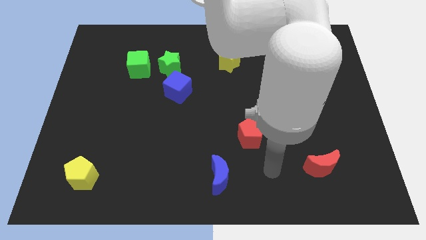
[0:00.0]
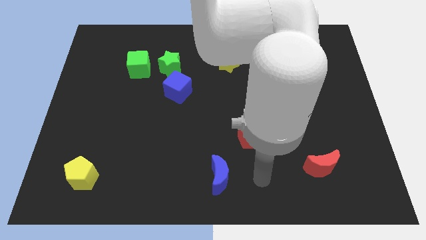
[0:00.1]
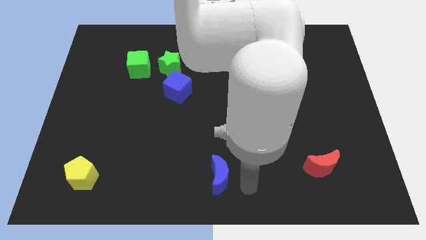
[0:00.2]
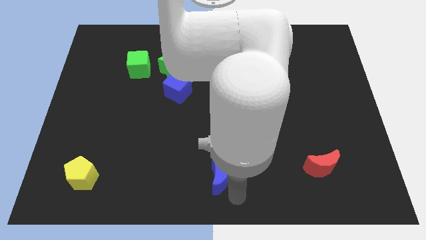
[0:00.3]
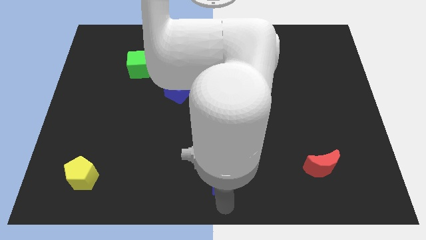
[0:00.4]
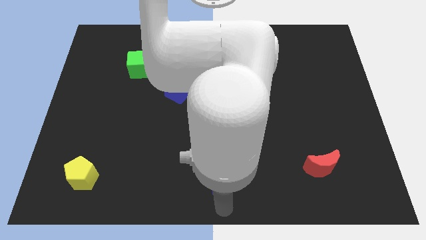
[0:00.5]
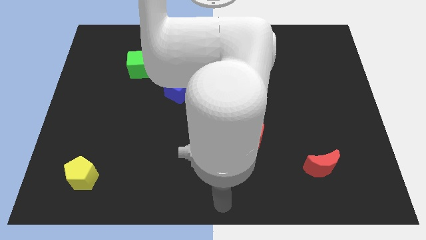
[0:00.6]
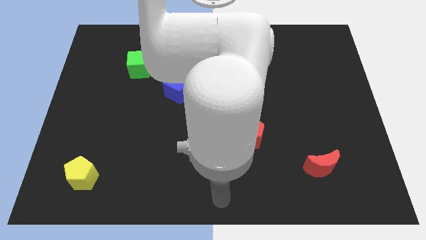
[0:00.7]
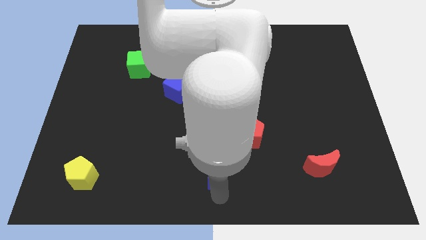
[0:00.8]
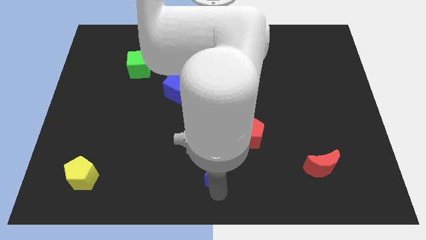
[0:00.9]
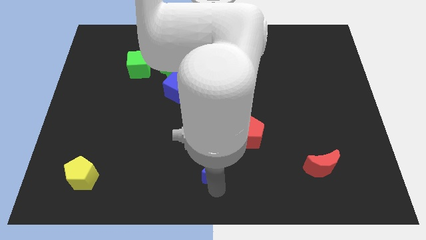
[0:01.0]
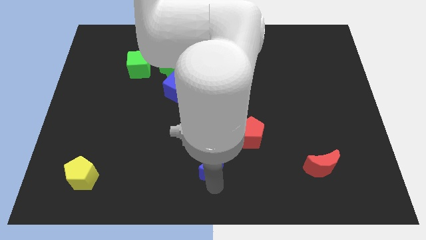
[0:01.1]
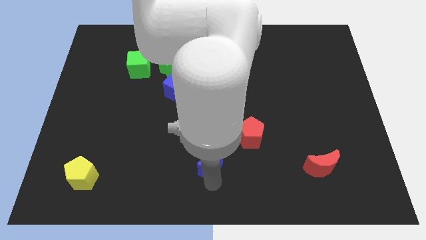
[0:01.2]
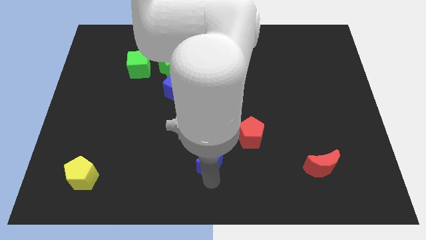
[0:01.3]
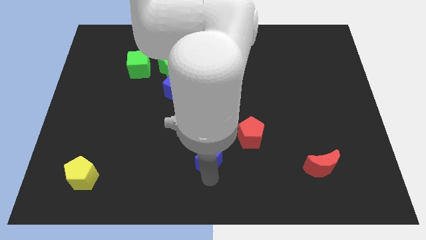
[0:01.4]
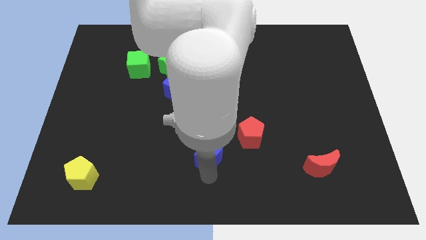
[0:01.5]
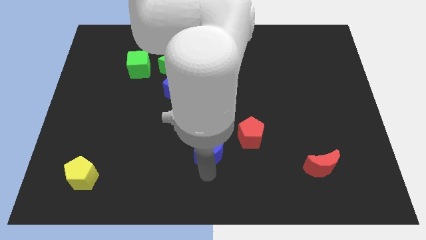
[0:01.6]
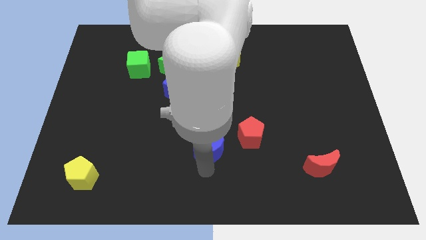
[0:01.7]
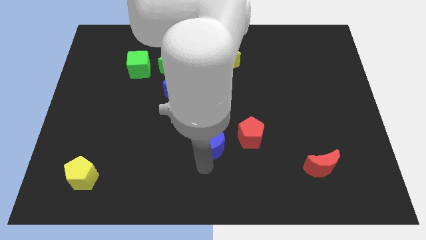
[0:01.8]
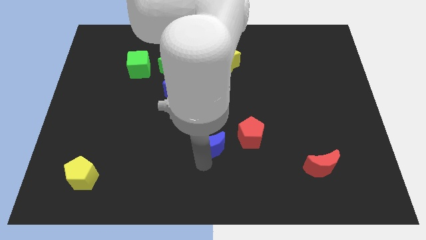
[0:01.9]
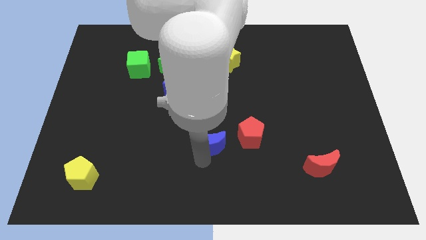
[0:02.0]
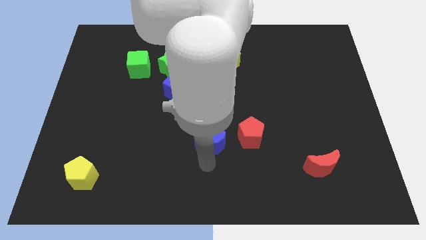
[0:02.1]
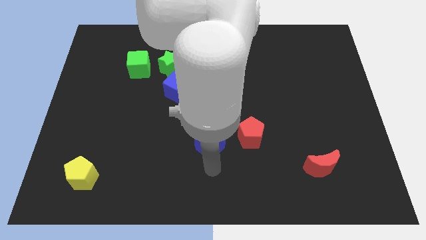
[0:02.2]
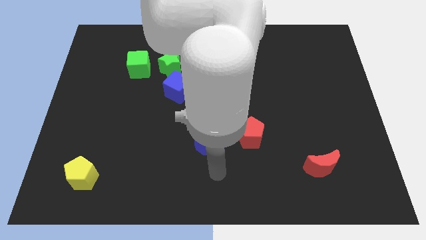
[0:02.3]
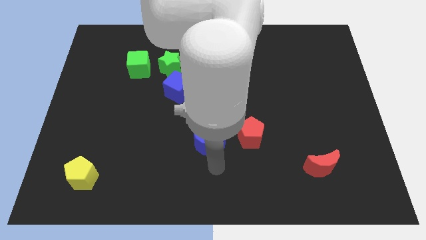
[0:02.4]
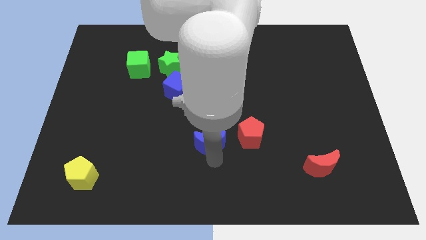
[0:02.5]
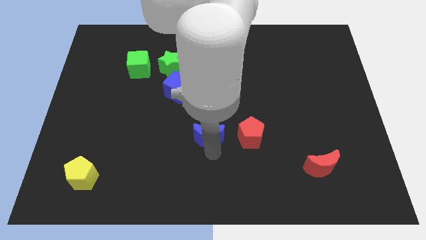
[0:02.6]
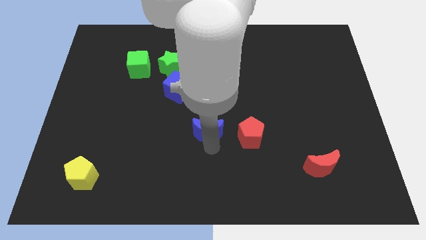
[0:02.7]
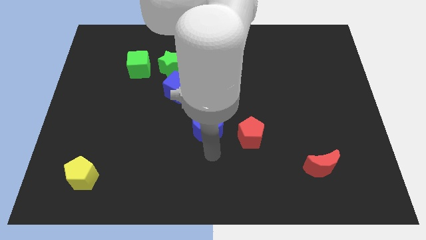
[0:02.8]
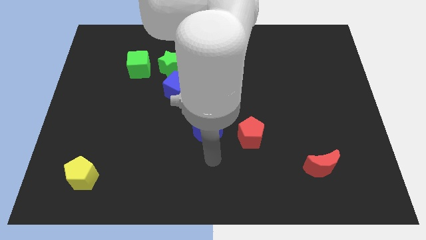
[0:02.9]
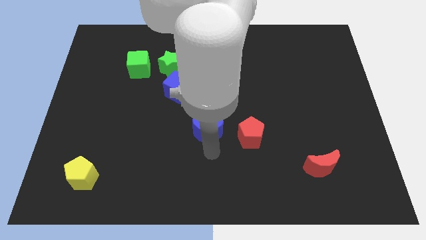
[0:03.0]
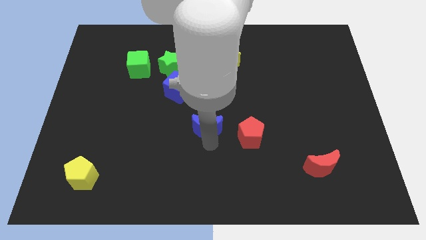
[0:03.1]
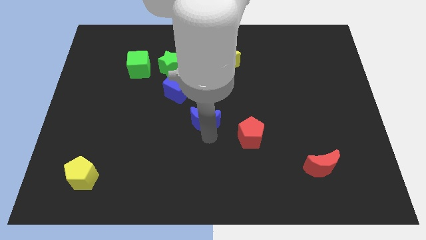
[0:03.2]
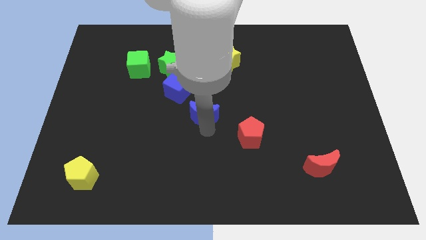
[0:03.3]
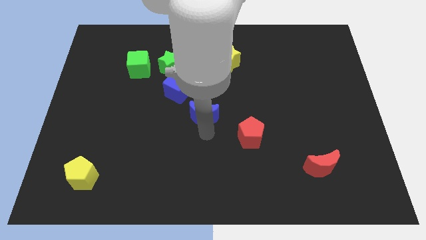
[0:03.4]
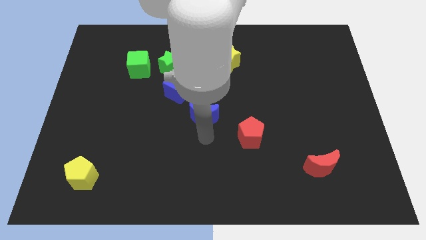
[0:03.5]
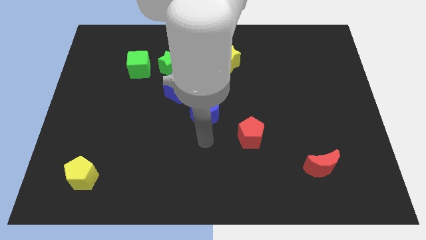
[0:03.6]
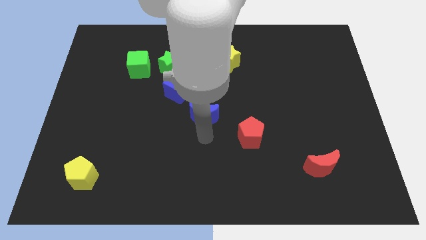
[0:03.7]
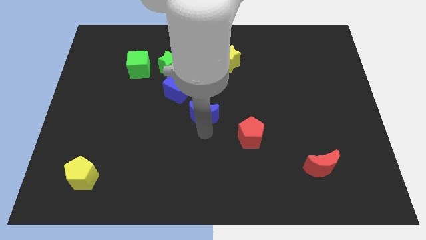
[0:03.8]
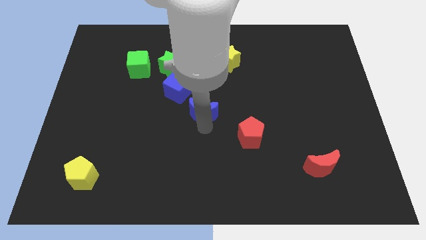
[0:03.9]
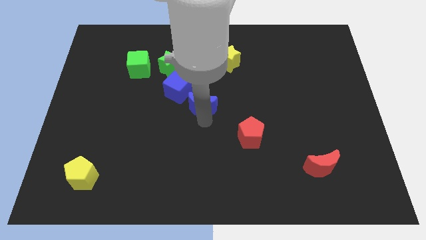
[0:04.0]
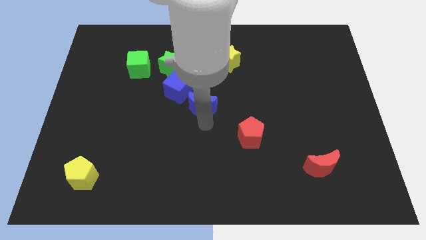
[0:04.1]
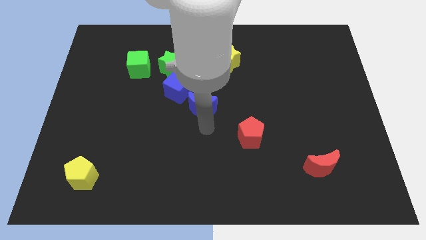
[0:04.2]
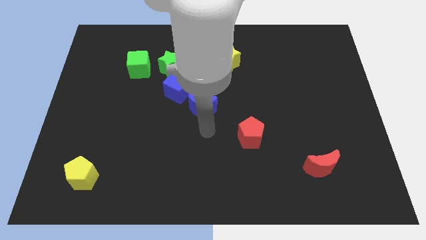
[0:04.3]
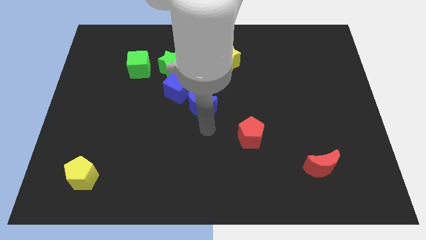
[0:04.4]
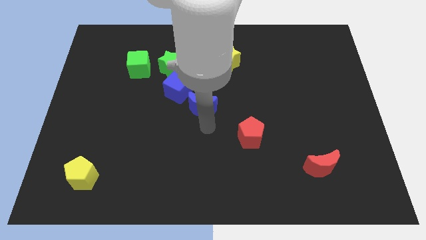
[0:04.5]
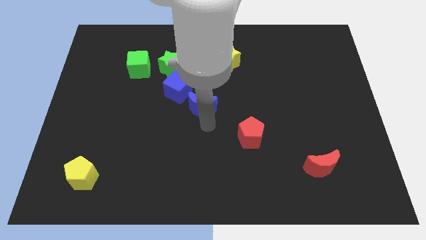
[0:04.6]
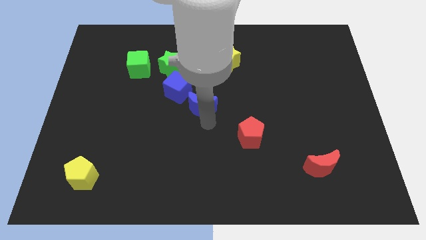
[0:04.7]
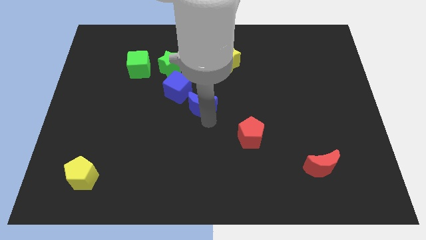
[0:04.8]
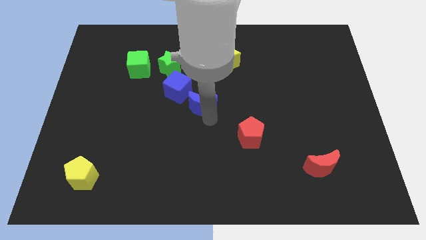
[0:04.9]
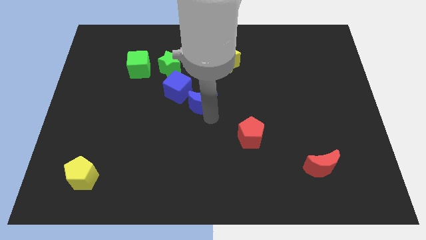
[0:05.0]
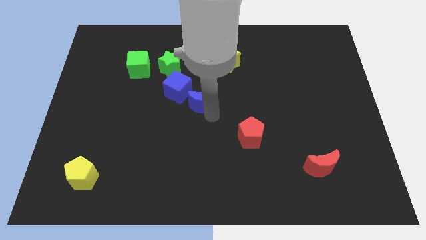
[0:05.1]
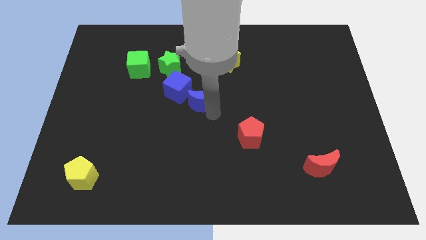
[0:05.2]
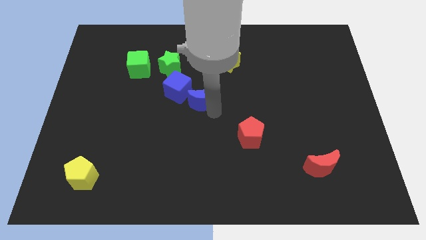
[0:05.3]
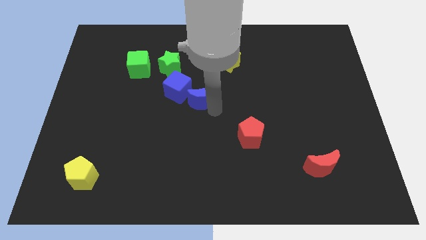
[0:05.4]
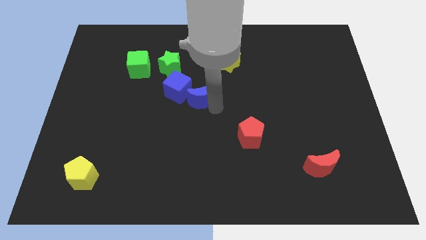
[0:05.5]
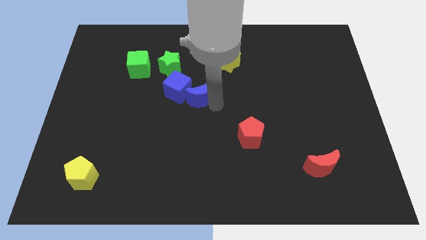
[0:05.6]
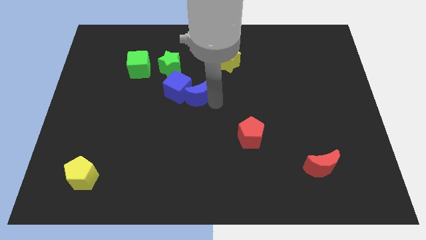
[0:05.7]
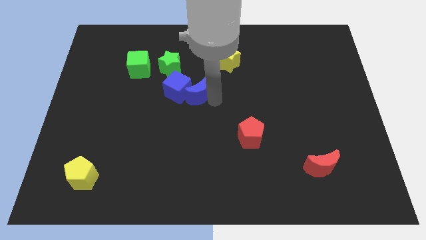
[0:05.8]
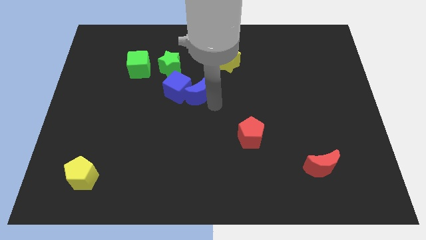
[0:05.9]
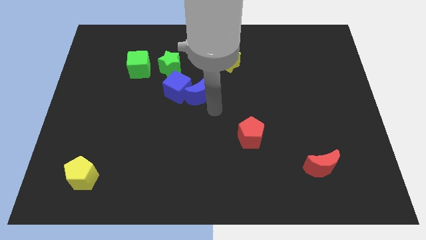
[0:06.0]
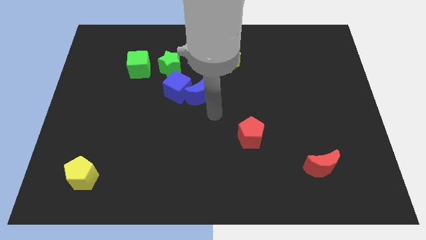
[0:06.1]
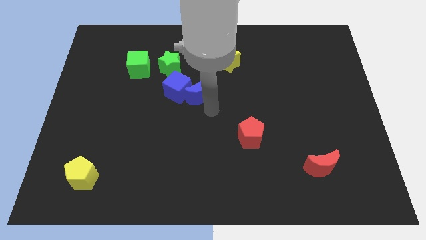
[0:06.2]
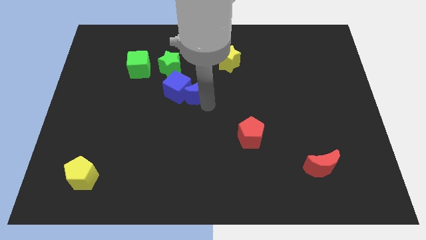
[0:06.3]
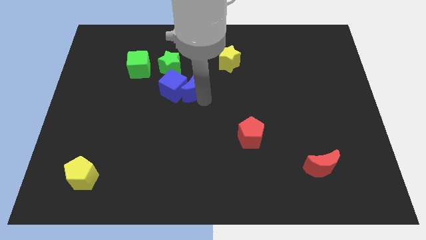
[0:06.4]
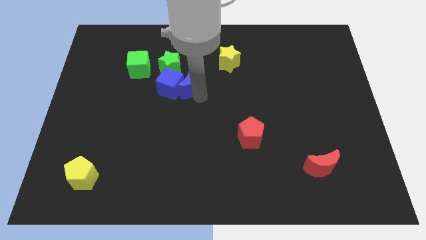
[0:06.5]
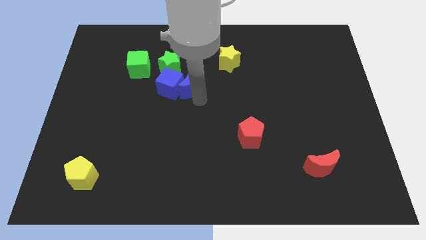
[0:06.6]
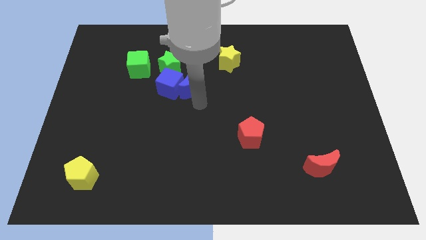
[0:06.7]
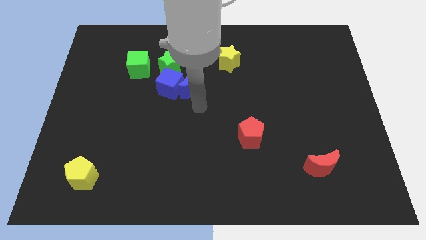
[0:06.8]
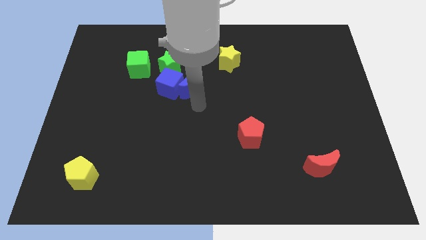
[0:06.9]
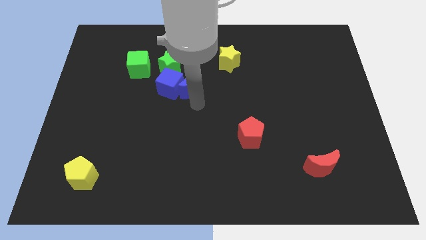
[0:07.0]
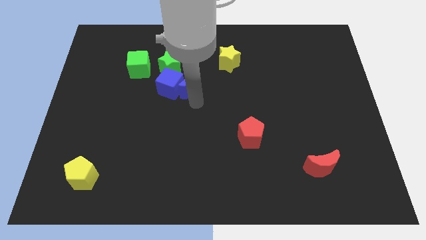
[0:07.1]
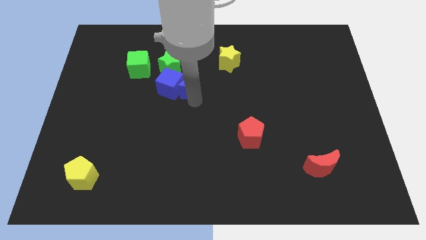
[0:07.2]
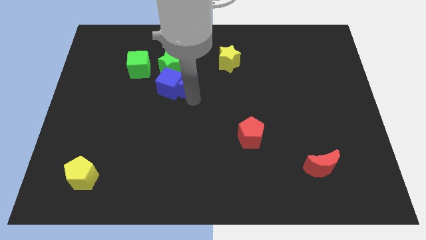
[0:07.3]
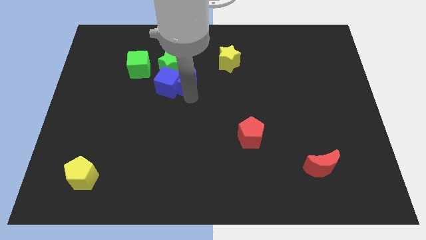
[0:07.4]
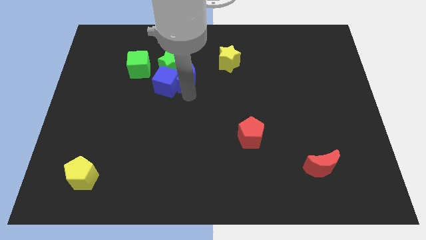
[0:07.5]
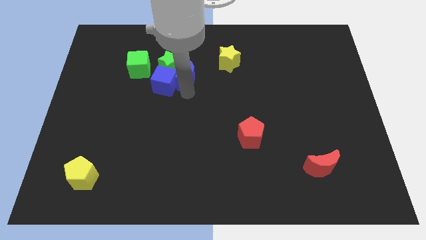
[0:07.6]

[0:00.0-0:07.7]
move the blue moon close to the green star
